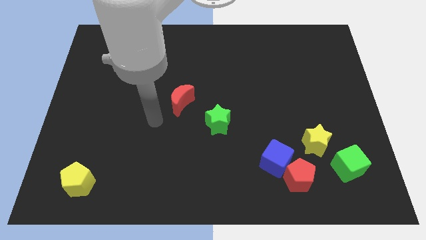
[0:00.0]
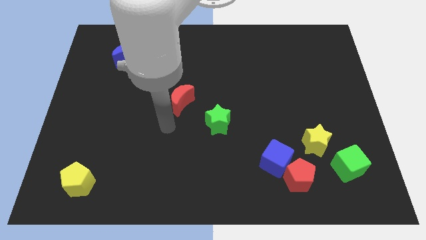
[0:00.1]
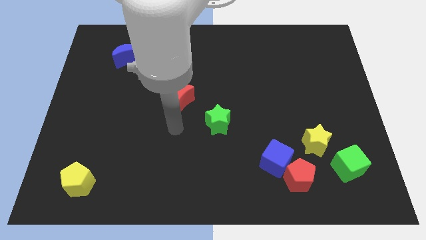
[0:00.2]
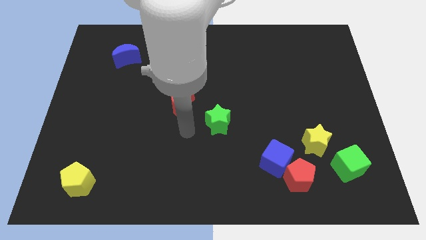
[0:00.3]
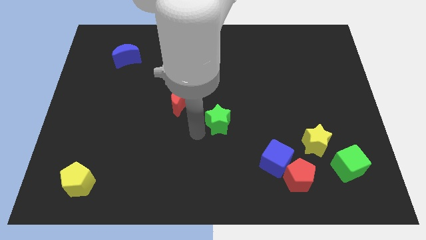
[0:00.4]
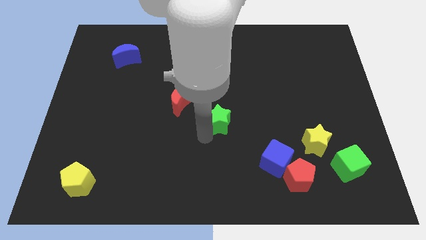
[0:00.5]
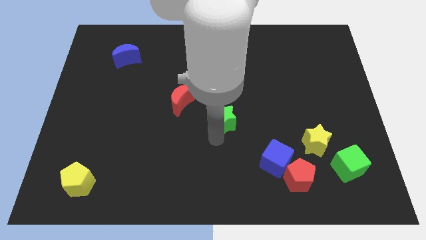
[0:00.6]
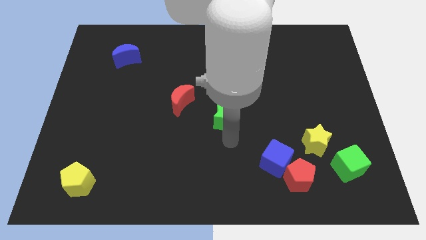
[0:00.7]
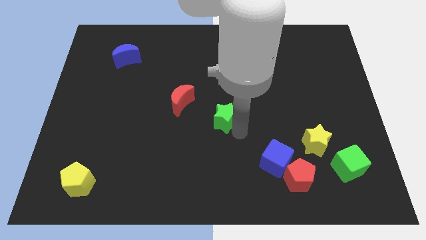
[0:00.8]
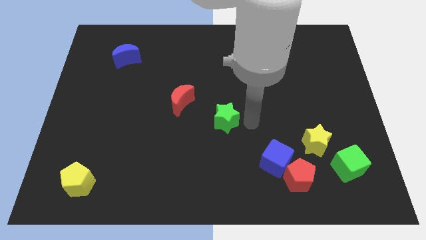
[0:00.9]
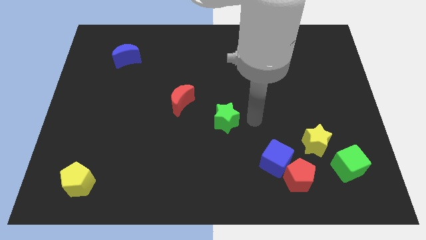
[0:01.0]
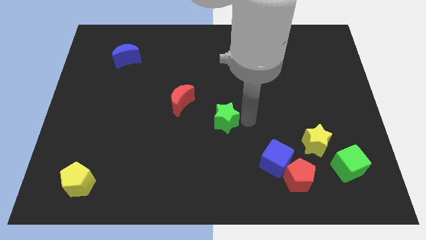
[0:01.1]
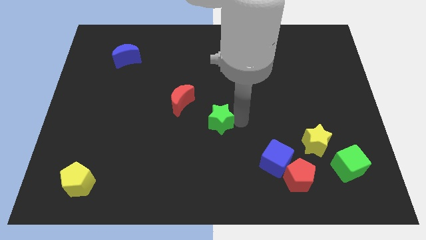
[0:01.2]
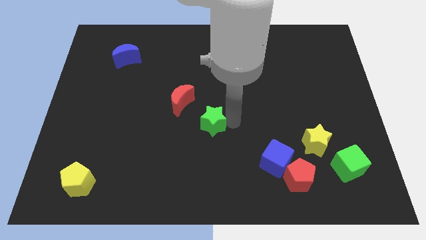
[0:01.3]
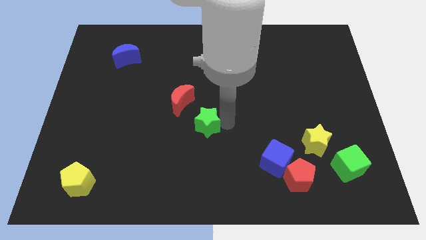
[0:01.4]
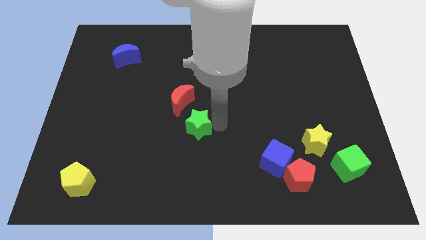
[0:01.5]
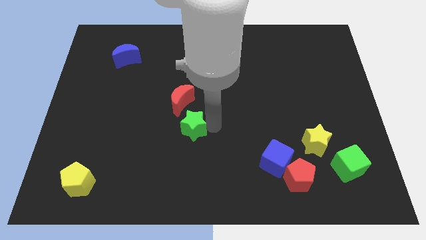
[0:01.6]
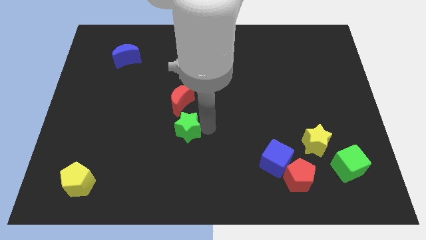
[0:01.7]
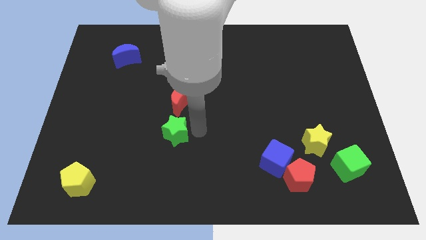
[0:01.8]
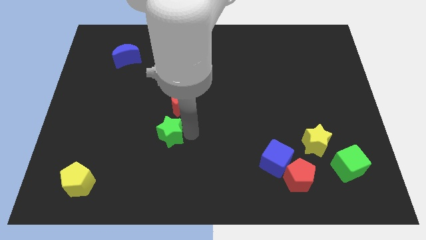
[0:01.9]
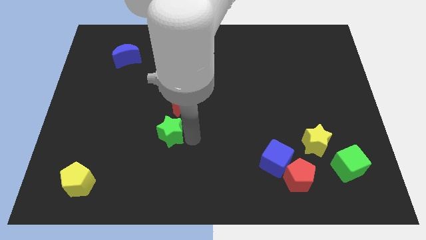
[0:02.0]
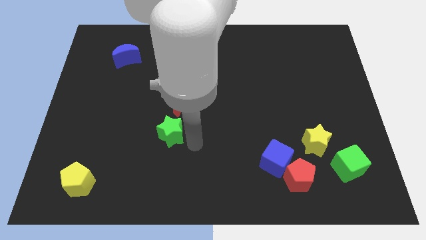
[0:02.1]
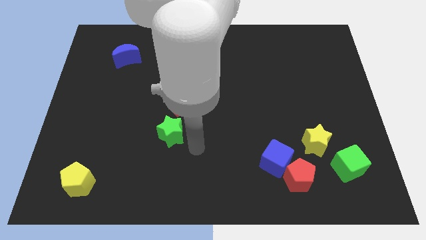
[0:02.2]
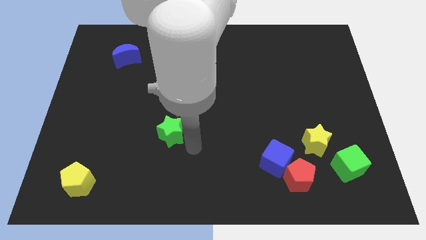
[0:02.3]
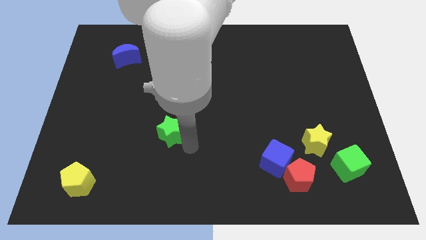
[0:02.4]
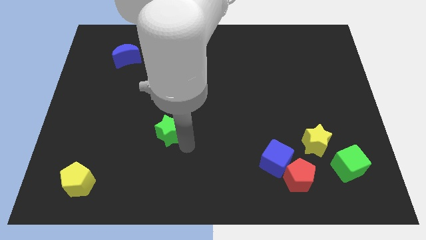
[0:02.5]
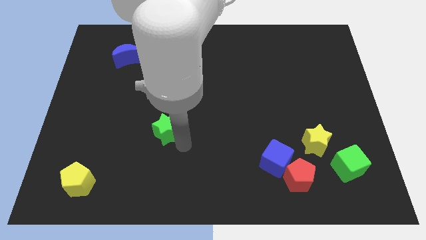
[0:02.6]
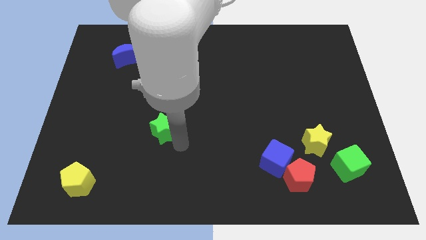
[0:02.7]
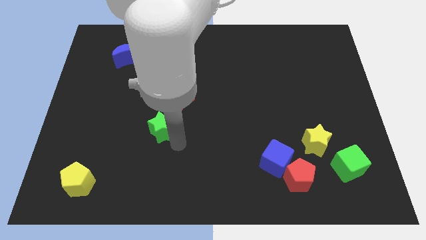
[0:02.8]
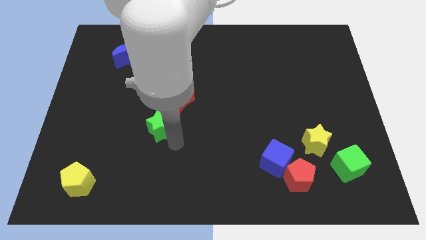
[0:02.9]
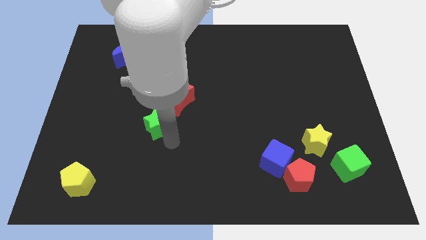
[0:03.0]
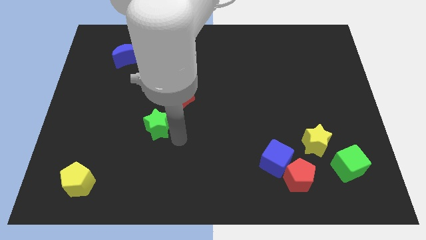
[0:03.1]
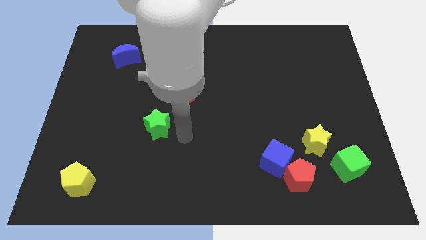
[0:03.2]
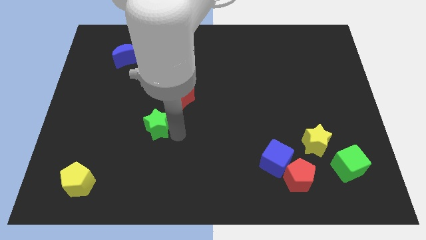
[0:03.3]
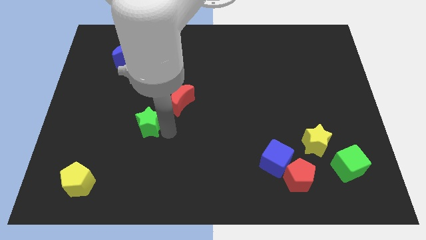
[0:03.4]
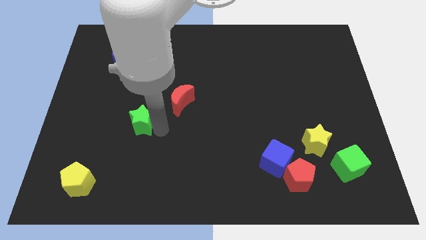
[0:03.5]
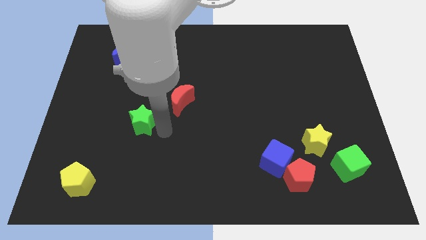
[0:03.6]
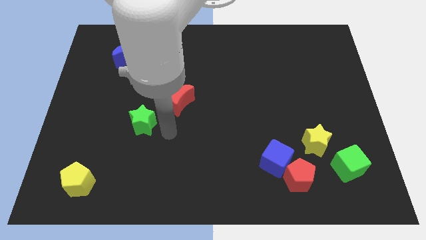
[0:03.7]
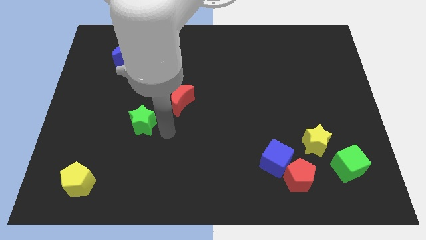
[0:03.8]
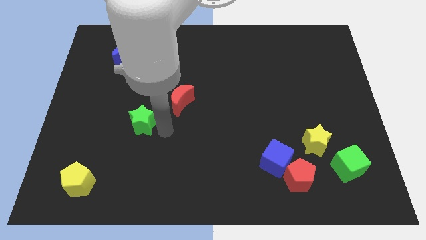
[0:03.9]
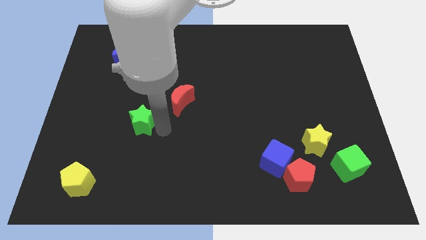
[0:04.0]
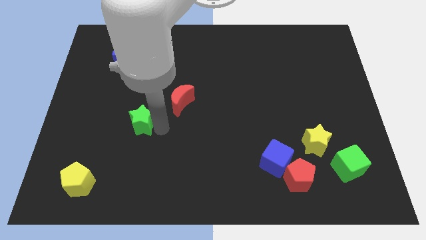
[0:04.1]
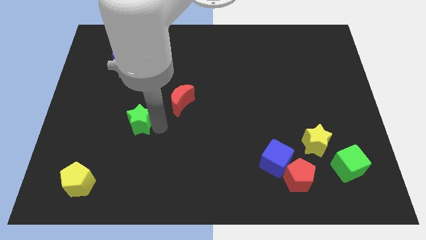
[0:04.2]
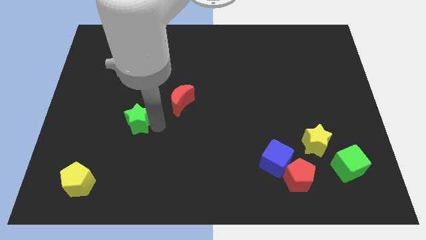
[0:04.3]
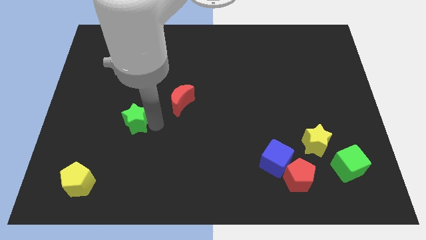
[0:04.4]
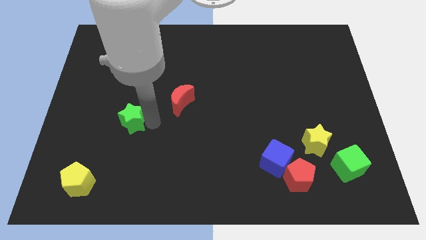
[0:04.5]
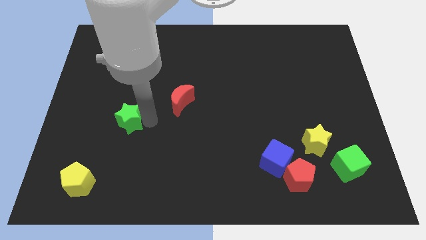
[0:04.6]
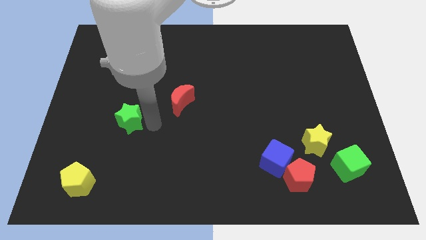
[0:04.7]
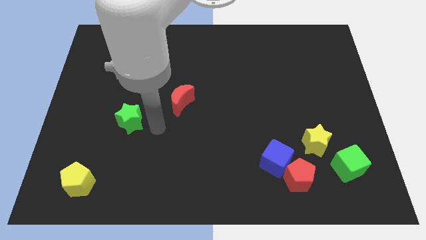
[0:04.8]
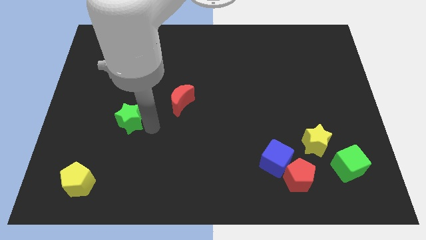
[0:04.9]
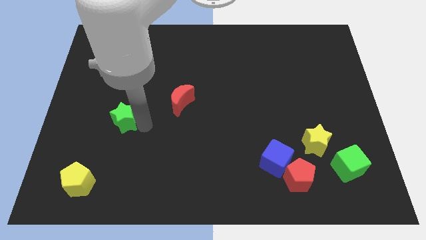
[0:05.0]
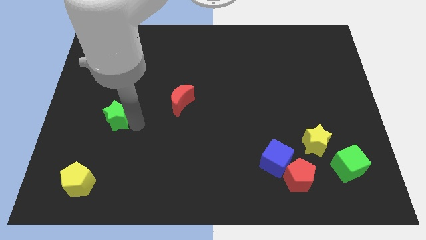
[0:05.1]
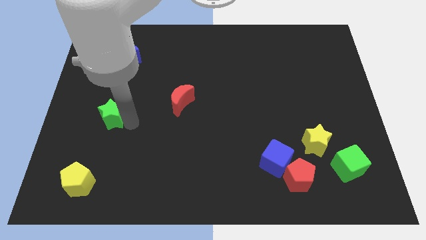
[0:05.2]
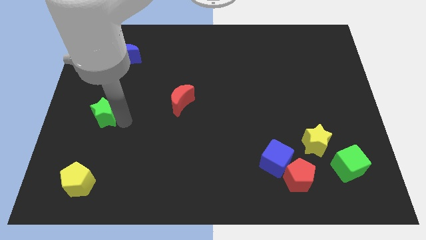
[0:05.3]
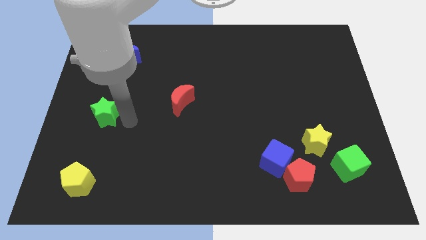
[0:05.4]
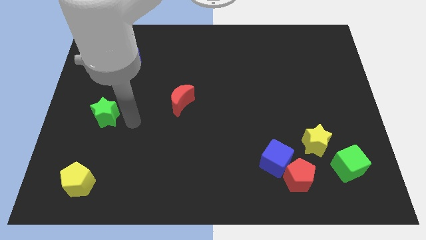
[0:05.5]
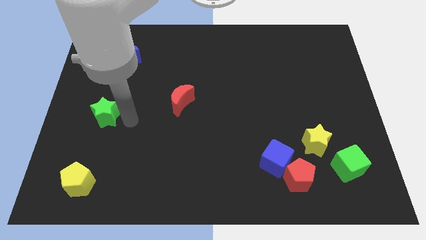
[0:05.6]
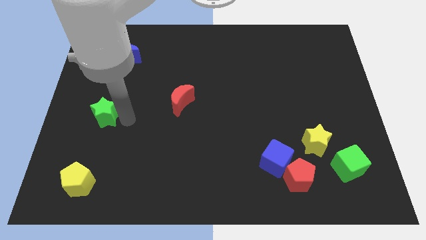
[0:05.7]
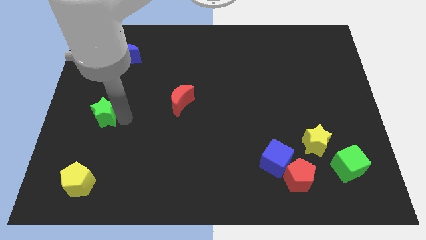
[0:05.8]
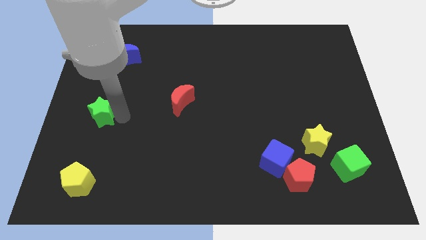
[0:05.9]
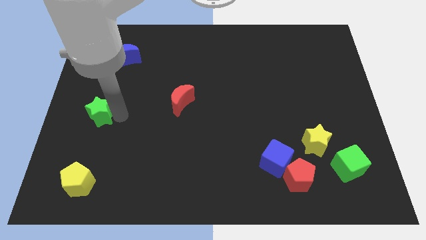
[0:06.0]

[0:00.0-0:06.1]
push the green star to the left side of the board
